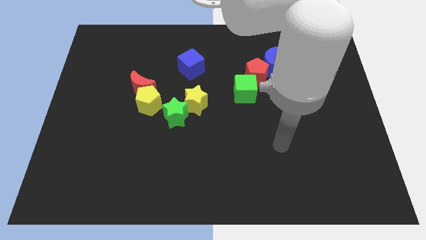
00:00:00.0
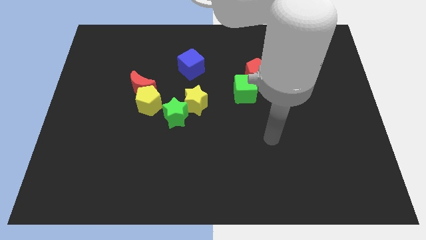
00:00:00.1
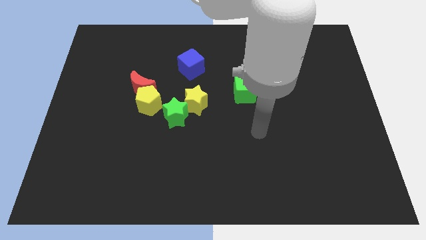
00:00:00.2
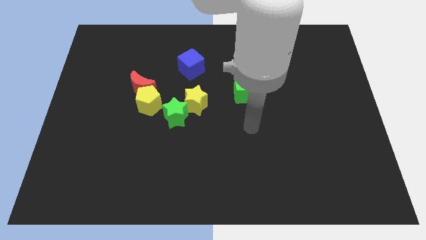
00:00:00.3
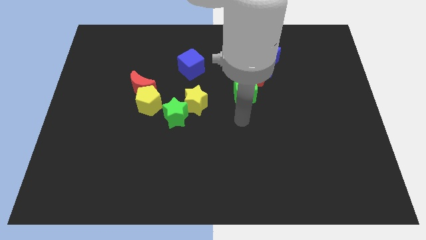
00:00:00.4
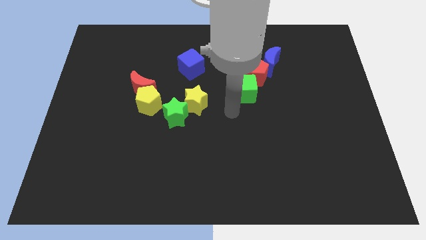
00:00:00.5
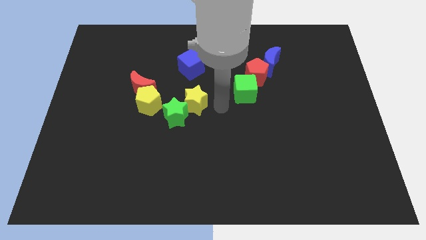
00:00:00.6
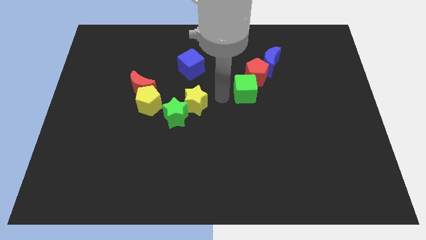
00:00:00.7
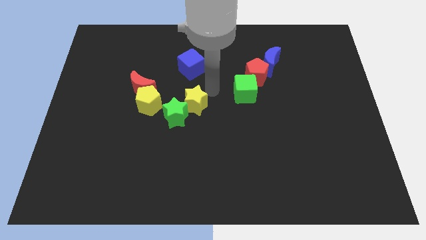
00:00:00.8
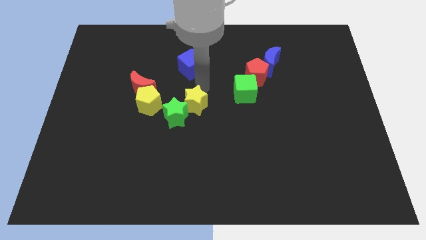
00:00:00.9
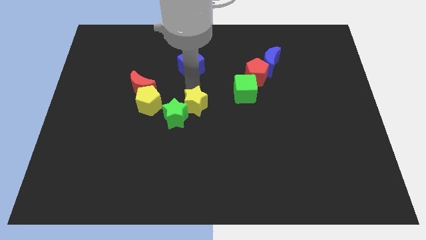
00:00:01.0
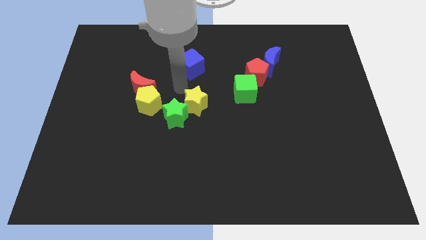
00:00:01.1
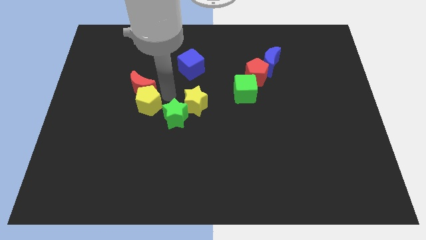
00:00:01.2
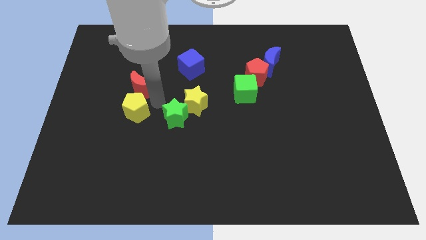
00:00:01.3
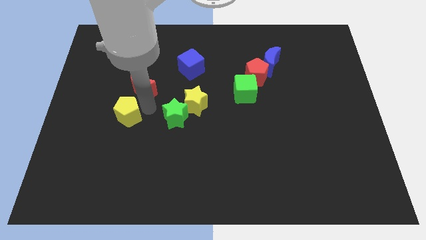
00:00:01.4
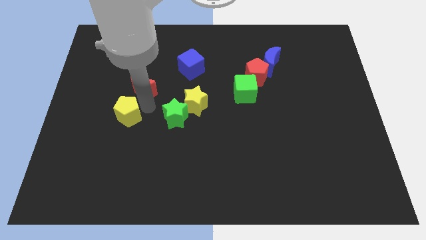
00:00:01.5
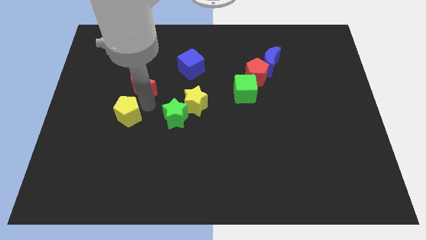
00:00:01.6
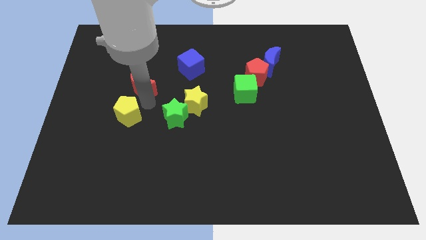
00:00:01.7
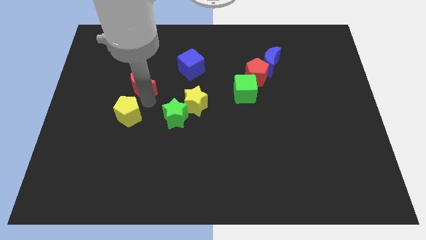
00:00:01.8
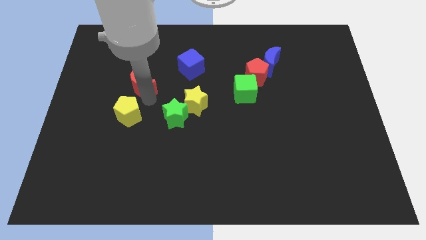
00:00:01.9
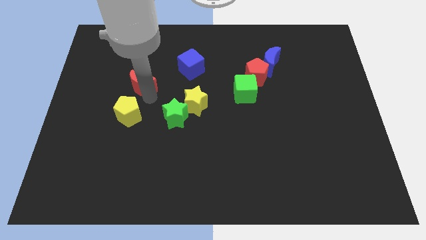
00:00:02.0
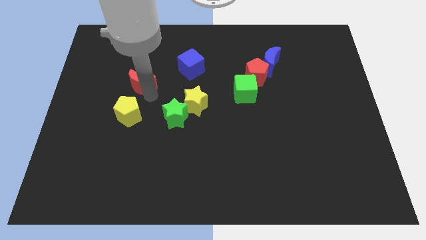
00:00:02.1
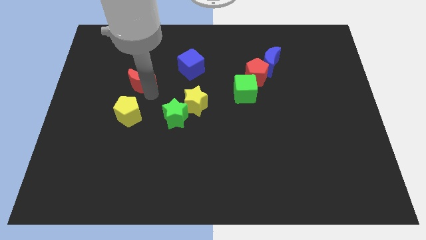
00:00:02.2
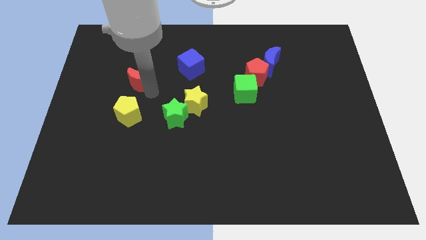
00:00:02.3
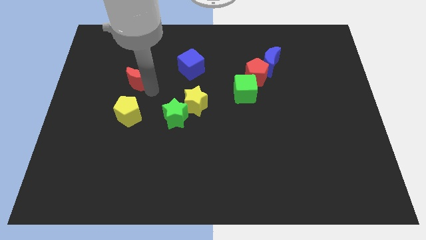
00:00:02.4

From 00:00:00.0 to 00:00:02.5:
pull the red moon apart from the yellow pentagon

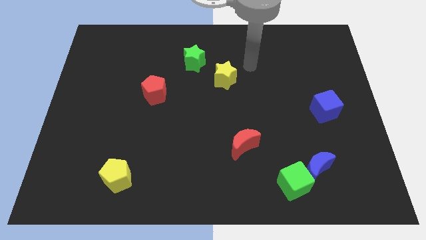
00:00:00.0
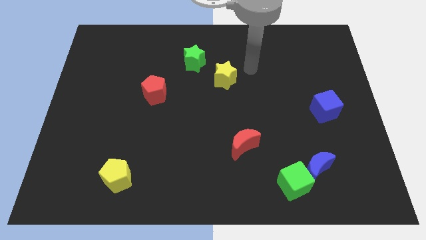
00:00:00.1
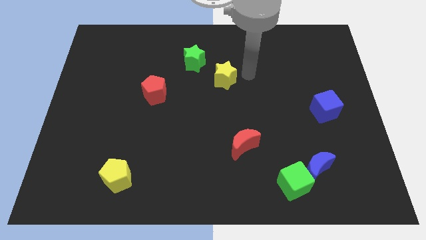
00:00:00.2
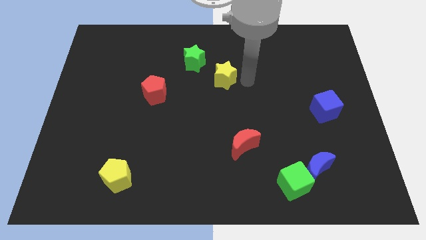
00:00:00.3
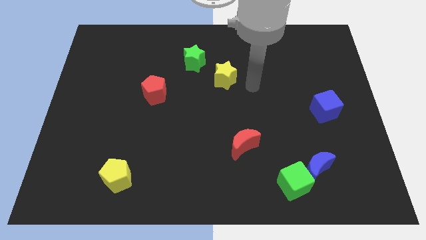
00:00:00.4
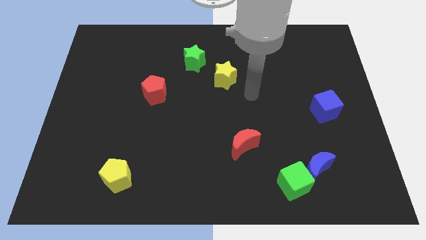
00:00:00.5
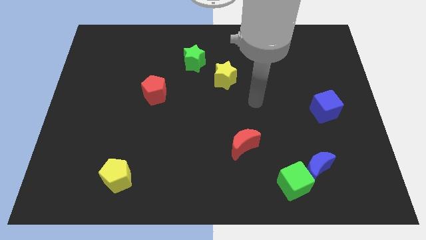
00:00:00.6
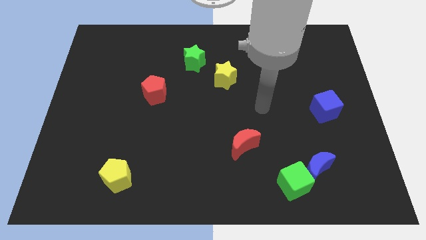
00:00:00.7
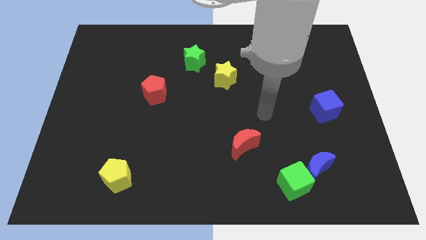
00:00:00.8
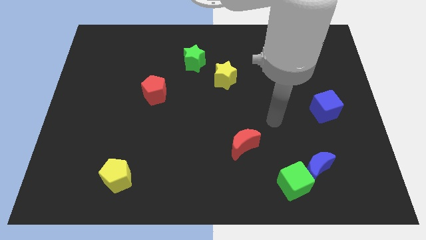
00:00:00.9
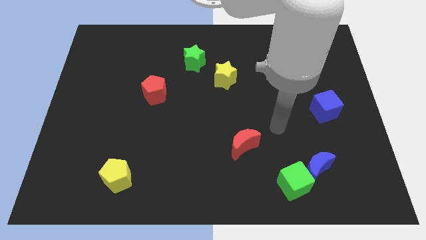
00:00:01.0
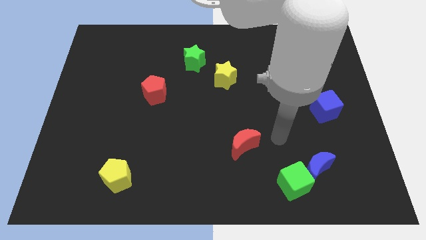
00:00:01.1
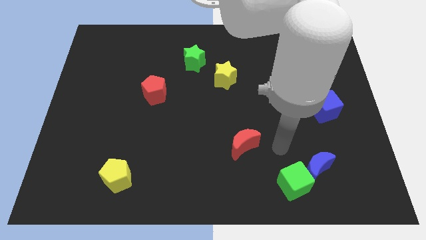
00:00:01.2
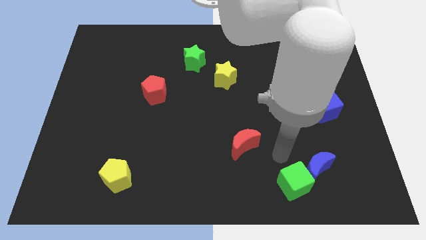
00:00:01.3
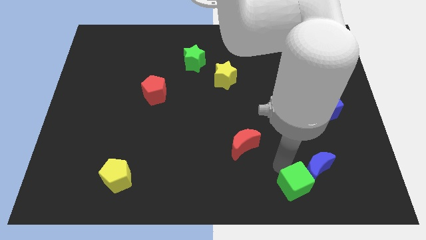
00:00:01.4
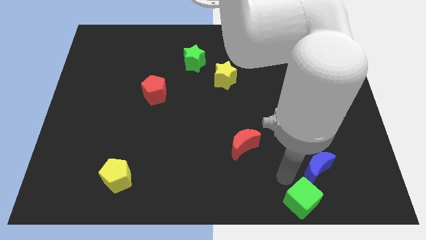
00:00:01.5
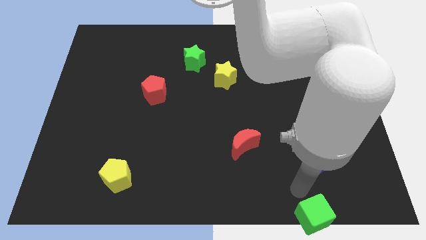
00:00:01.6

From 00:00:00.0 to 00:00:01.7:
move the blue moon away from the green cube

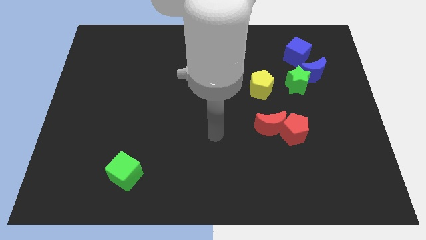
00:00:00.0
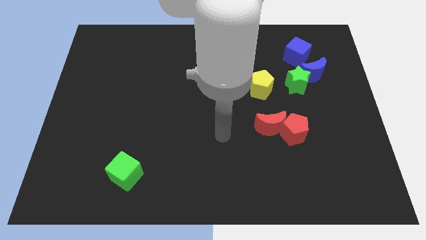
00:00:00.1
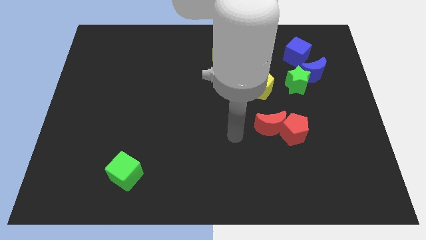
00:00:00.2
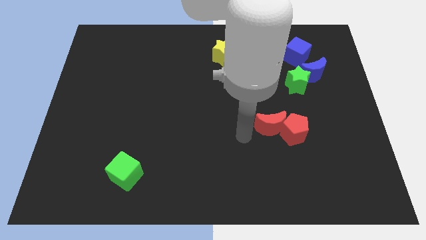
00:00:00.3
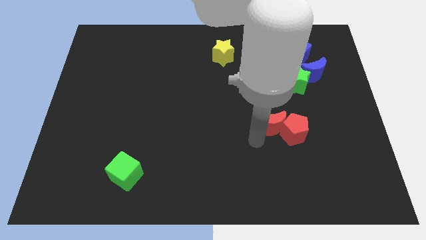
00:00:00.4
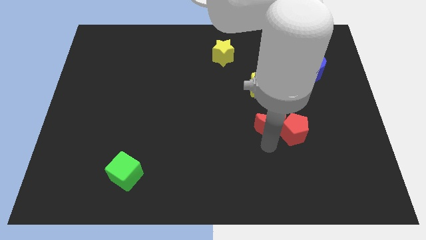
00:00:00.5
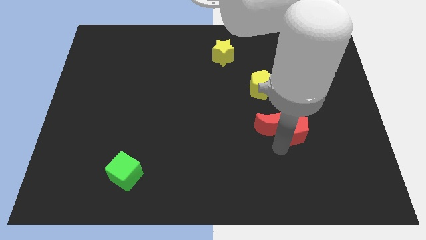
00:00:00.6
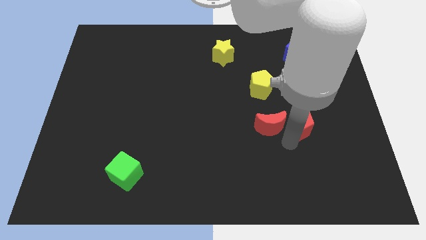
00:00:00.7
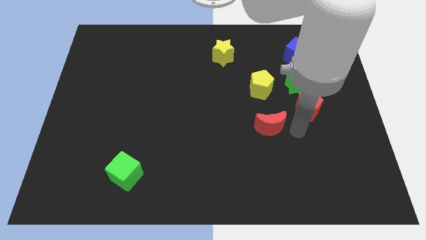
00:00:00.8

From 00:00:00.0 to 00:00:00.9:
move the red moon away from the red pentagon

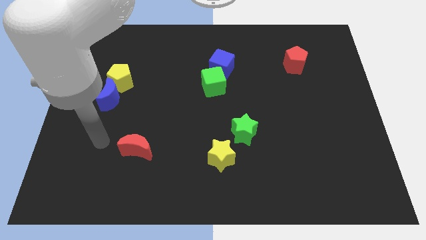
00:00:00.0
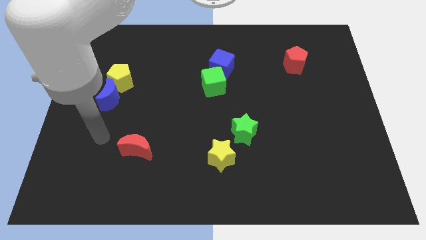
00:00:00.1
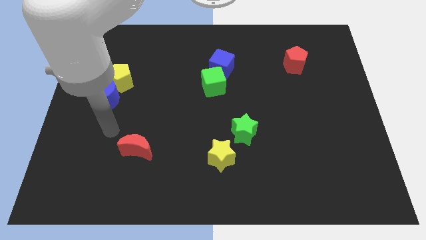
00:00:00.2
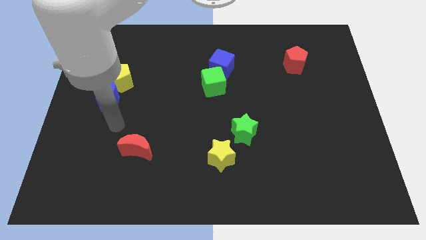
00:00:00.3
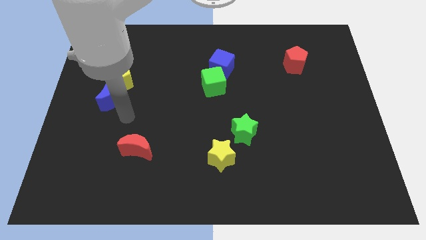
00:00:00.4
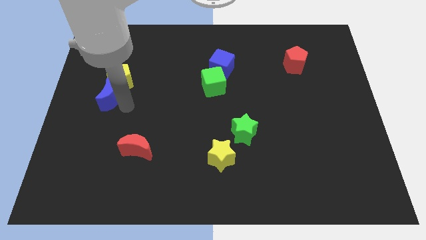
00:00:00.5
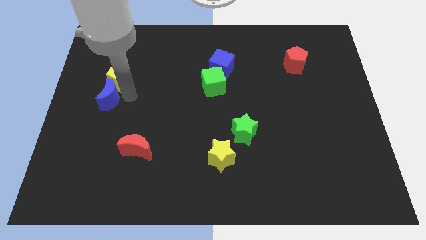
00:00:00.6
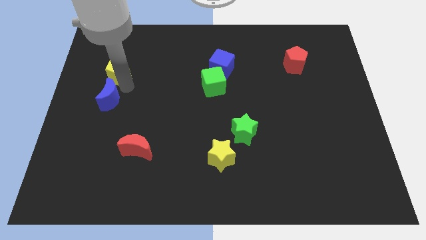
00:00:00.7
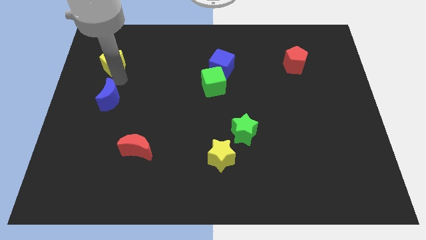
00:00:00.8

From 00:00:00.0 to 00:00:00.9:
pull the blue moon apart from the yellow pentagon

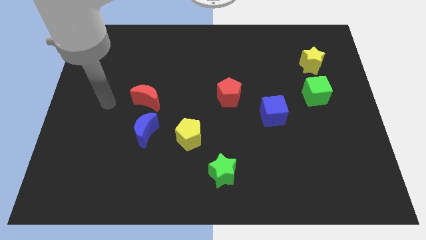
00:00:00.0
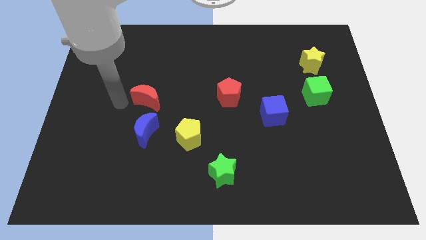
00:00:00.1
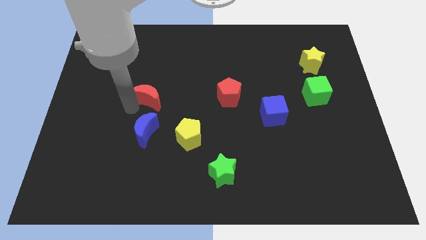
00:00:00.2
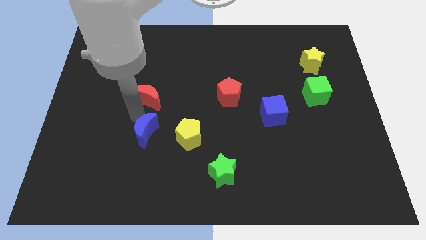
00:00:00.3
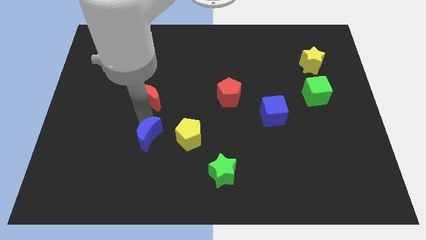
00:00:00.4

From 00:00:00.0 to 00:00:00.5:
separate the red moon from the blue moon

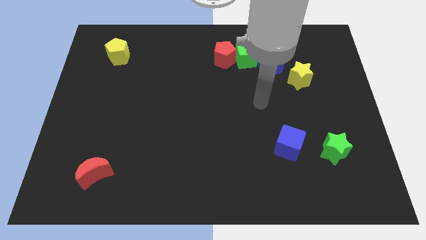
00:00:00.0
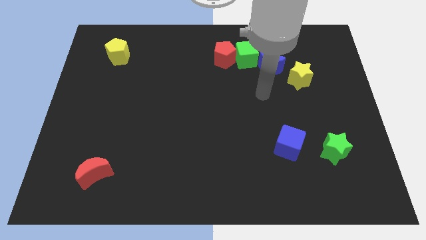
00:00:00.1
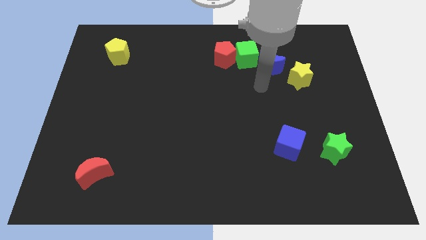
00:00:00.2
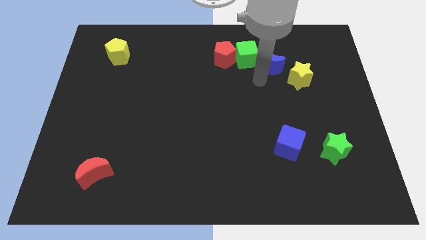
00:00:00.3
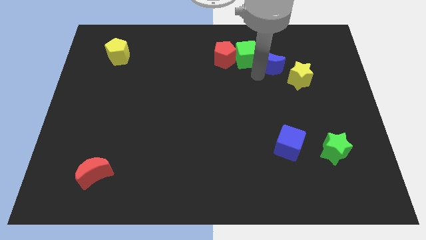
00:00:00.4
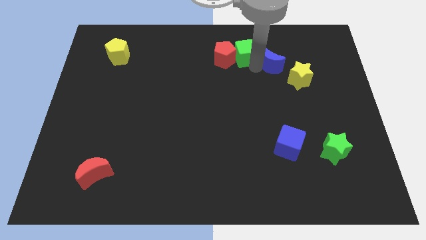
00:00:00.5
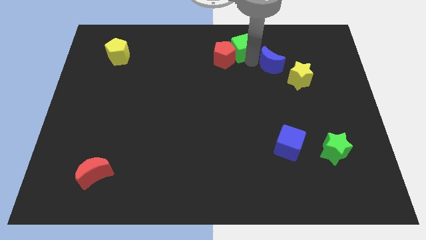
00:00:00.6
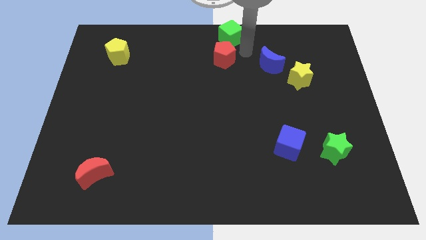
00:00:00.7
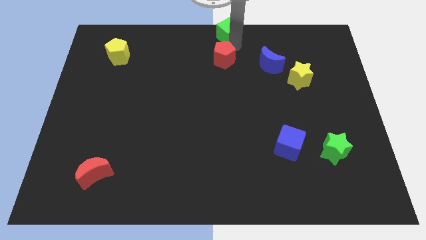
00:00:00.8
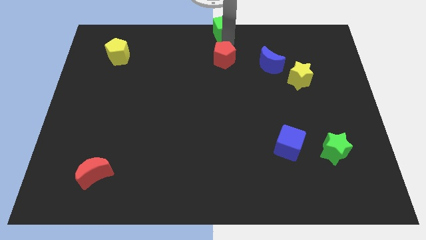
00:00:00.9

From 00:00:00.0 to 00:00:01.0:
pull the red pentagon apart from the green cube

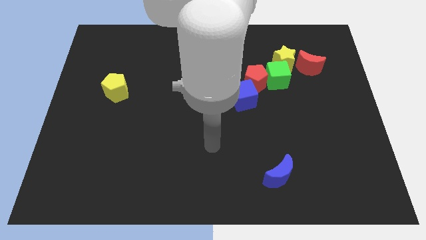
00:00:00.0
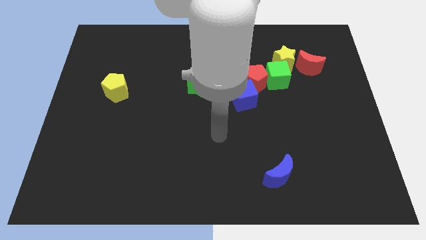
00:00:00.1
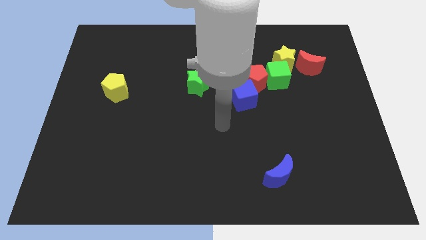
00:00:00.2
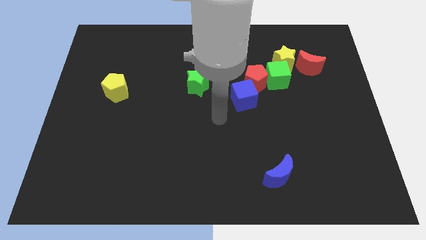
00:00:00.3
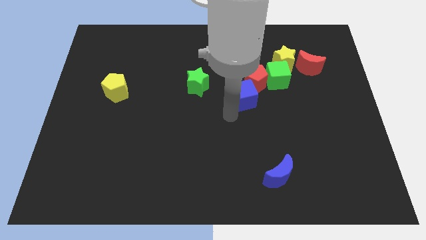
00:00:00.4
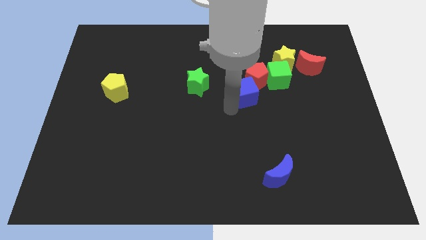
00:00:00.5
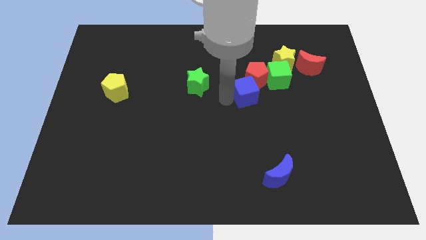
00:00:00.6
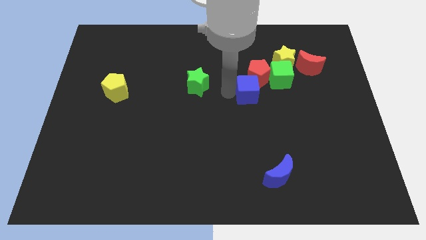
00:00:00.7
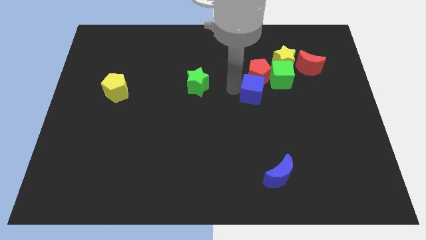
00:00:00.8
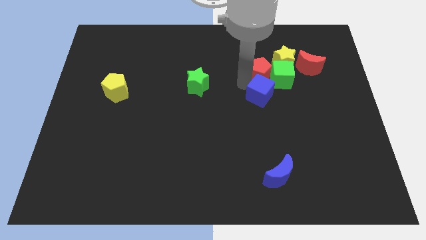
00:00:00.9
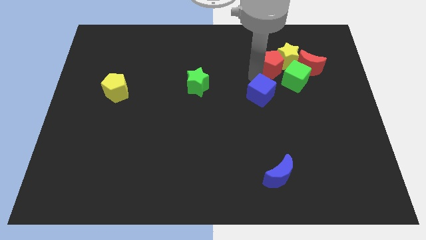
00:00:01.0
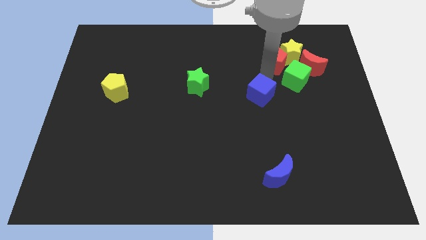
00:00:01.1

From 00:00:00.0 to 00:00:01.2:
pull the blue cube apart from the red pentagon

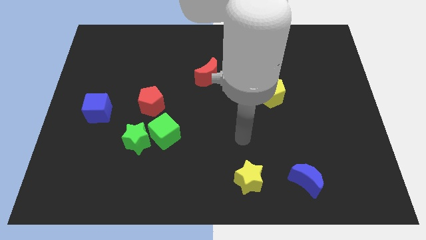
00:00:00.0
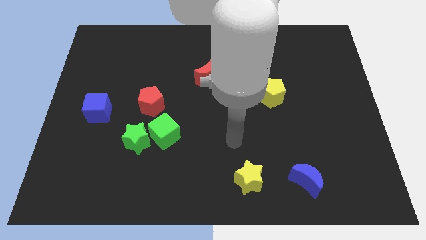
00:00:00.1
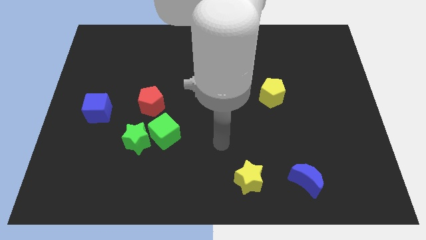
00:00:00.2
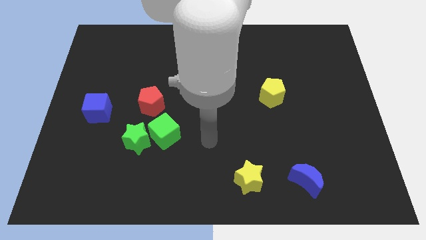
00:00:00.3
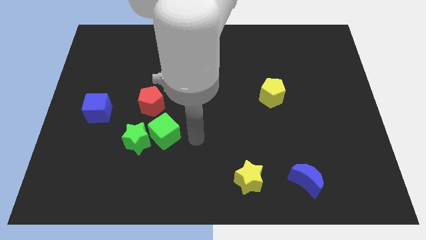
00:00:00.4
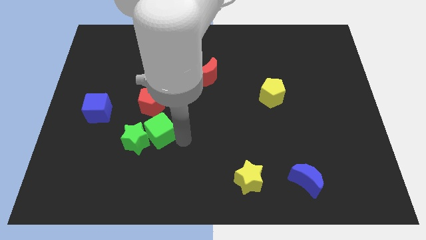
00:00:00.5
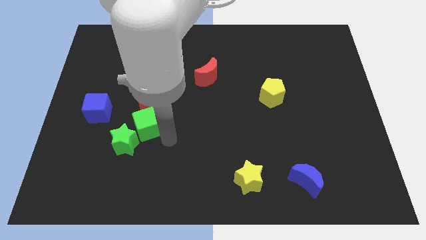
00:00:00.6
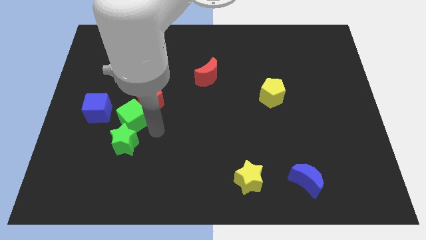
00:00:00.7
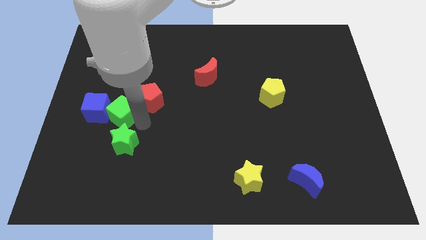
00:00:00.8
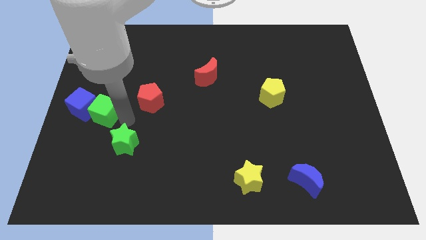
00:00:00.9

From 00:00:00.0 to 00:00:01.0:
pull the green star apart from the green cube
